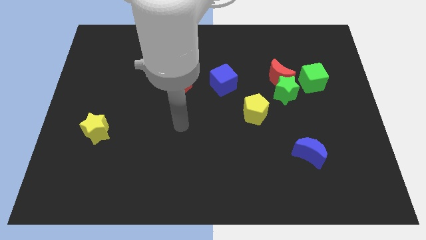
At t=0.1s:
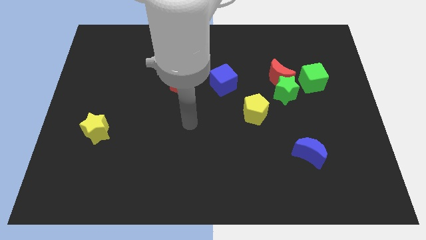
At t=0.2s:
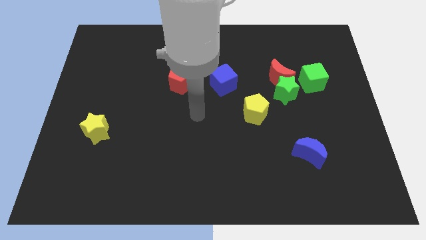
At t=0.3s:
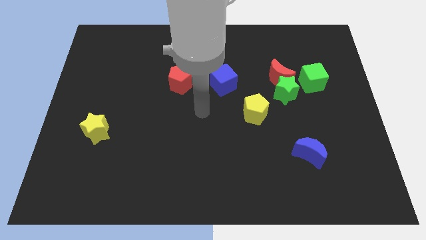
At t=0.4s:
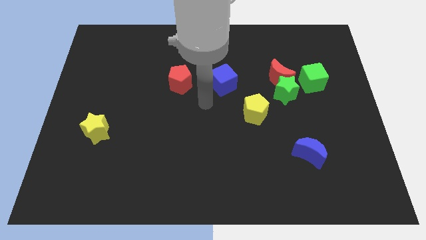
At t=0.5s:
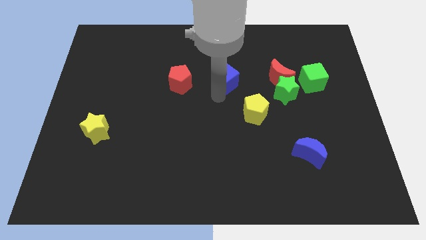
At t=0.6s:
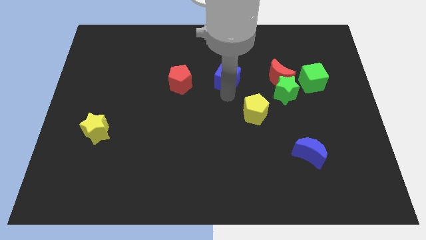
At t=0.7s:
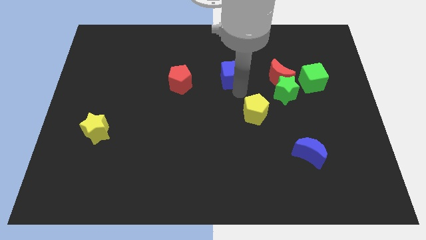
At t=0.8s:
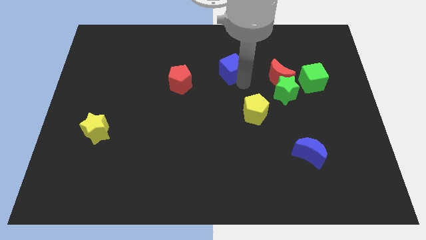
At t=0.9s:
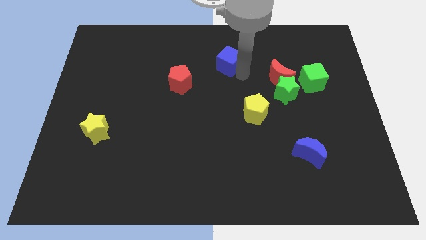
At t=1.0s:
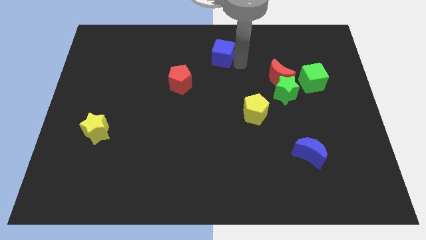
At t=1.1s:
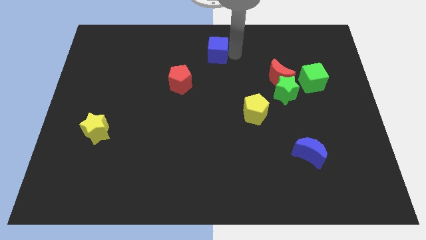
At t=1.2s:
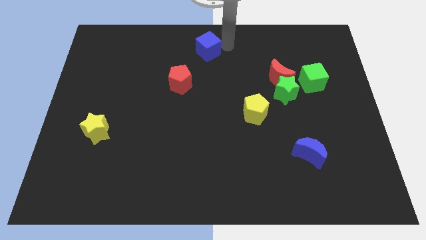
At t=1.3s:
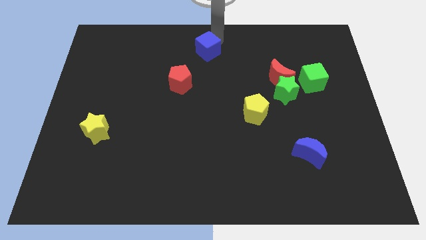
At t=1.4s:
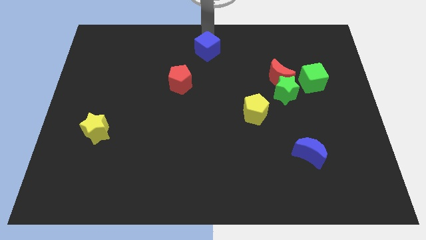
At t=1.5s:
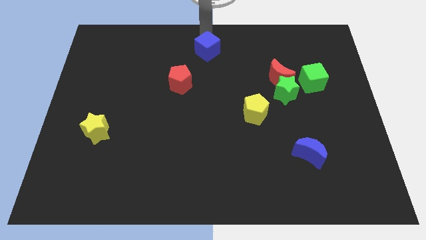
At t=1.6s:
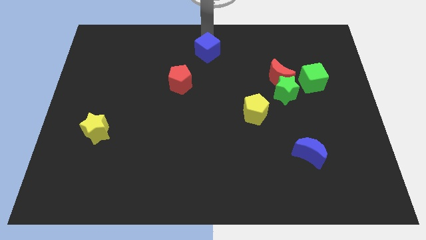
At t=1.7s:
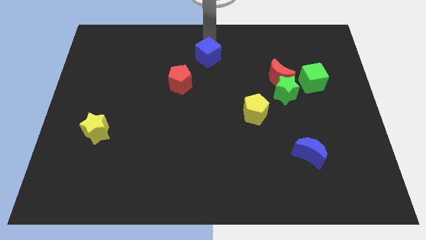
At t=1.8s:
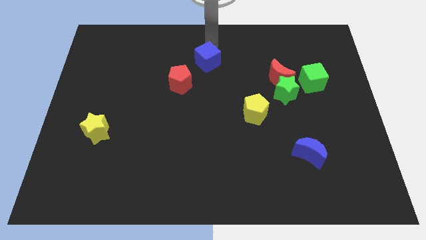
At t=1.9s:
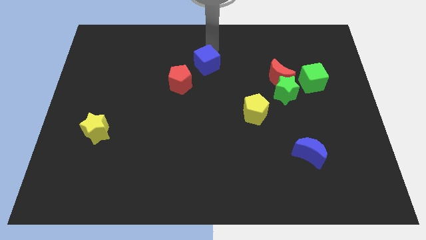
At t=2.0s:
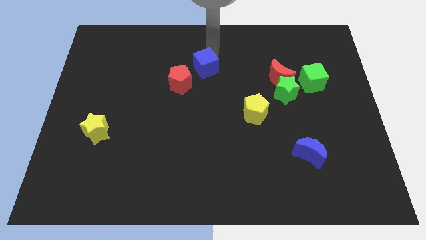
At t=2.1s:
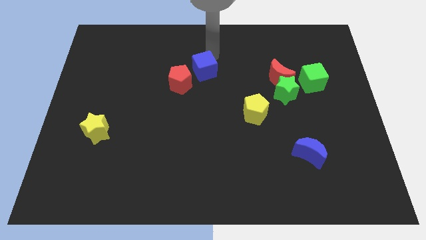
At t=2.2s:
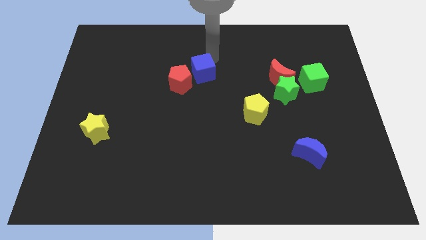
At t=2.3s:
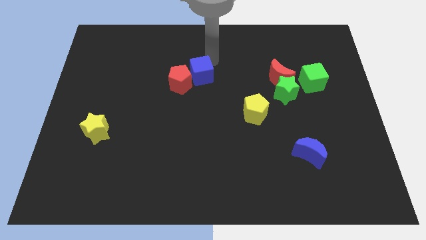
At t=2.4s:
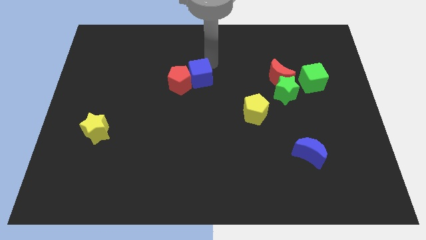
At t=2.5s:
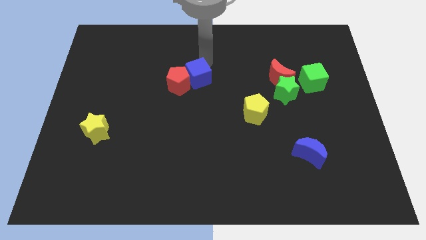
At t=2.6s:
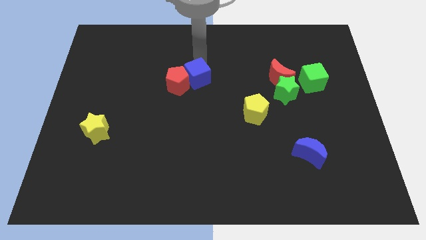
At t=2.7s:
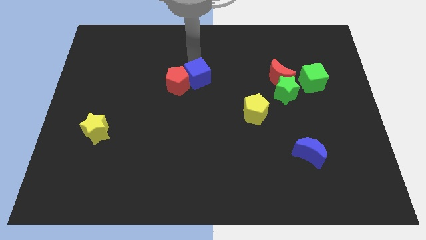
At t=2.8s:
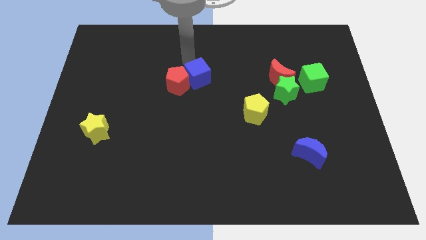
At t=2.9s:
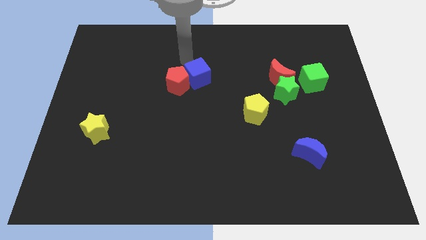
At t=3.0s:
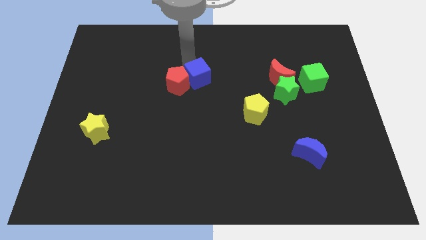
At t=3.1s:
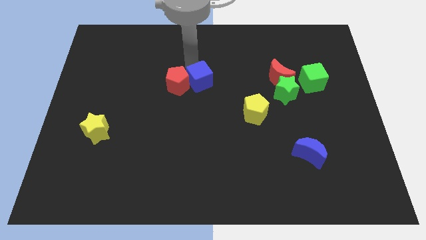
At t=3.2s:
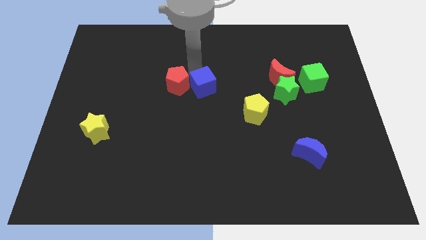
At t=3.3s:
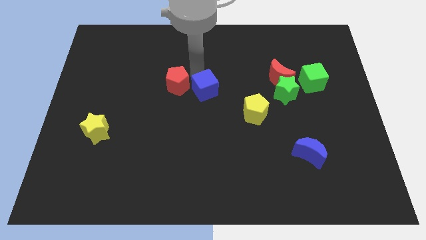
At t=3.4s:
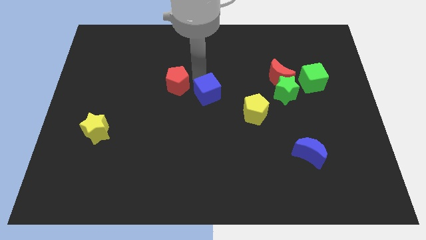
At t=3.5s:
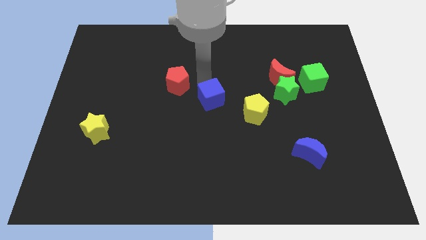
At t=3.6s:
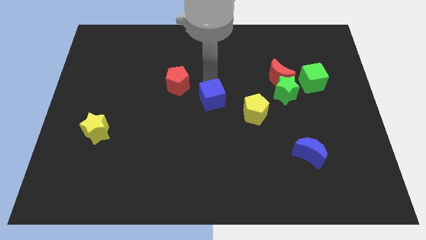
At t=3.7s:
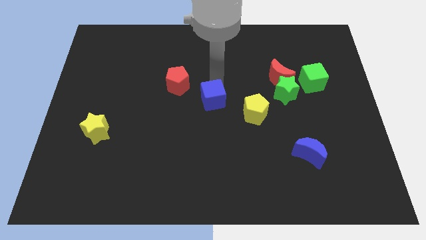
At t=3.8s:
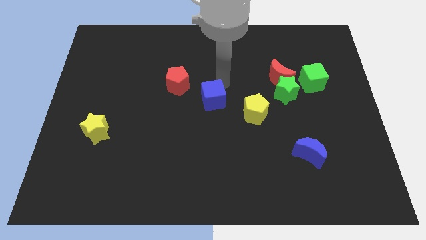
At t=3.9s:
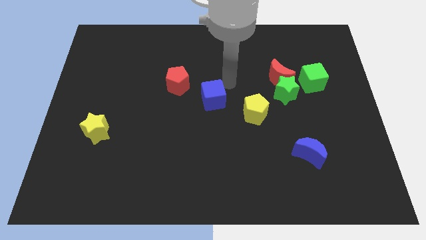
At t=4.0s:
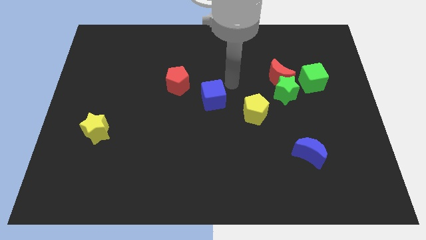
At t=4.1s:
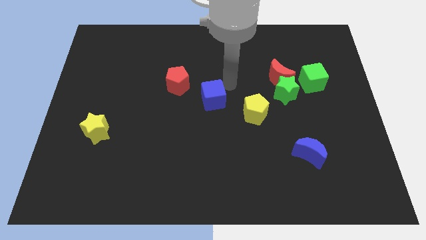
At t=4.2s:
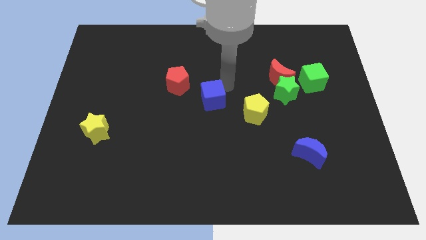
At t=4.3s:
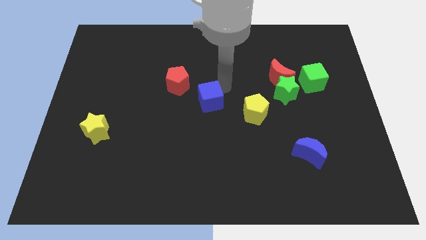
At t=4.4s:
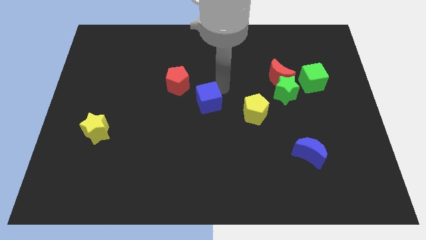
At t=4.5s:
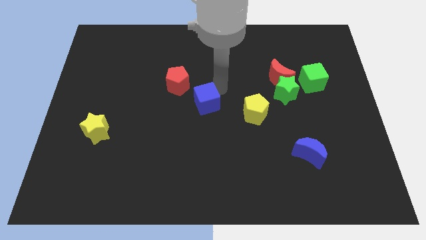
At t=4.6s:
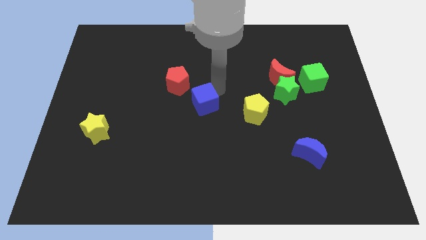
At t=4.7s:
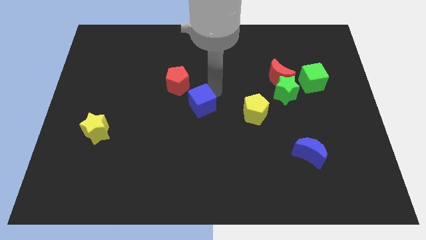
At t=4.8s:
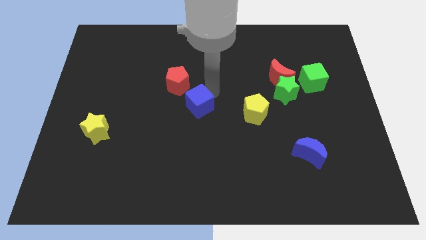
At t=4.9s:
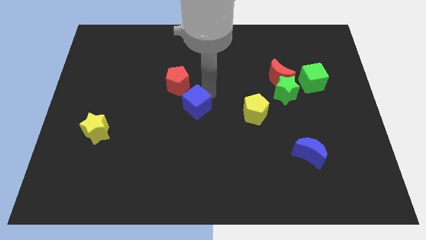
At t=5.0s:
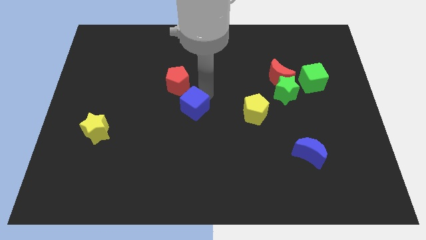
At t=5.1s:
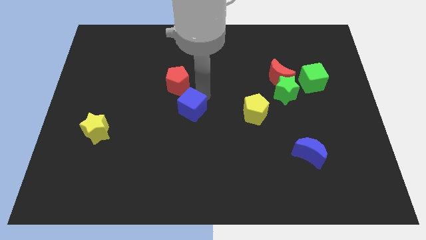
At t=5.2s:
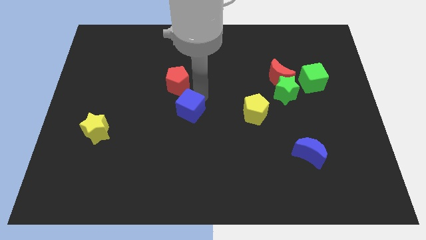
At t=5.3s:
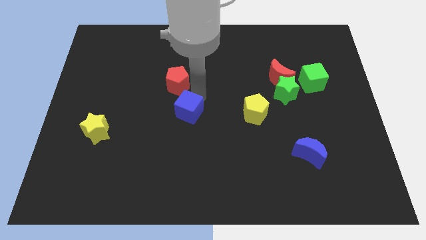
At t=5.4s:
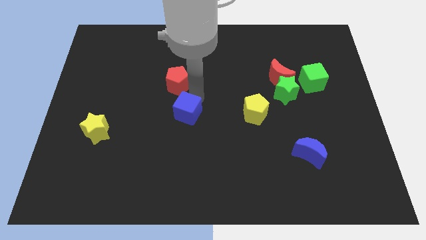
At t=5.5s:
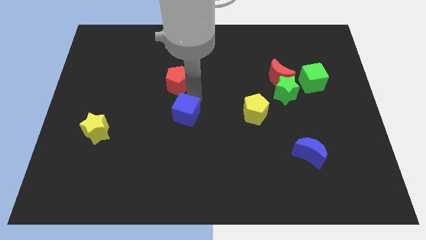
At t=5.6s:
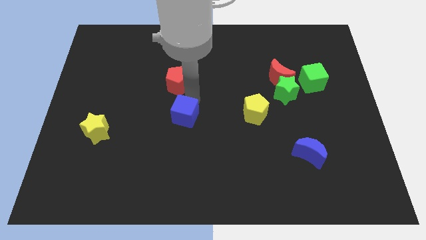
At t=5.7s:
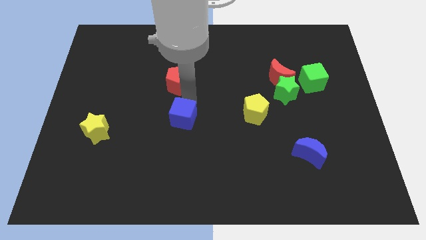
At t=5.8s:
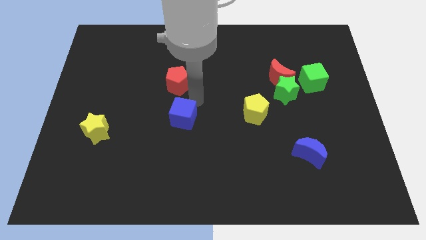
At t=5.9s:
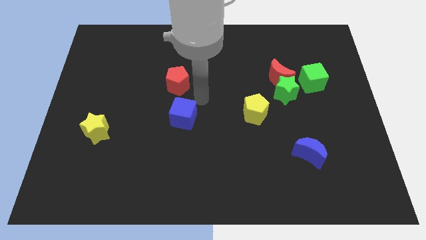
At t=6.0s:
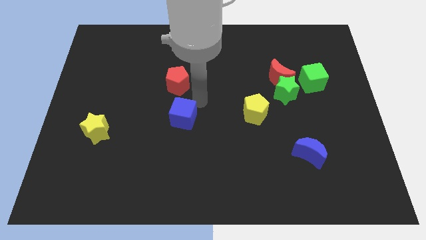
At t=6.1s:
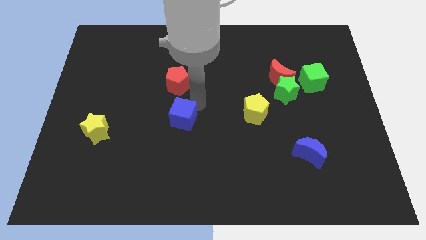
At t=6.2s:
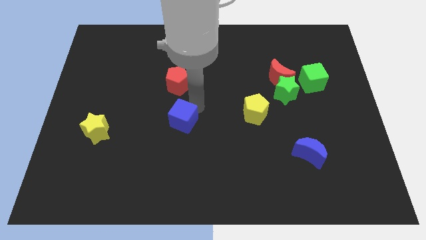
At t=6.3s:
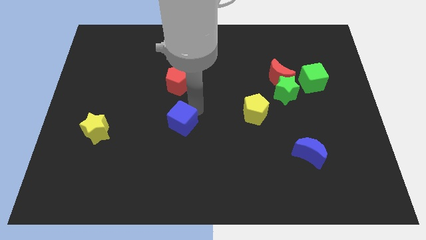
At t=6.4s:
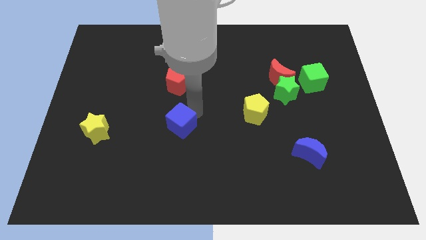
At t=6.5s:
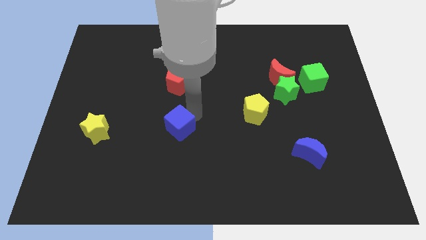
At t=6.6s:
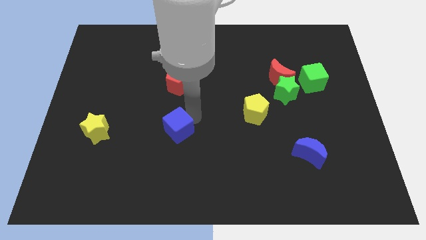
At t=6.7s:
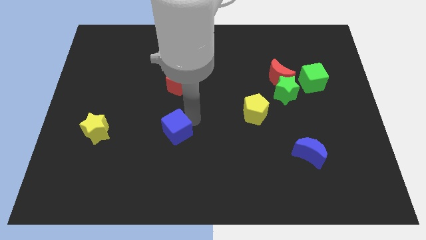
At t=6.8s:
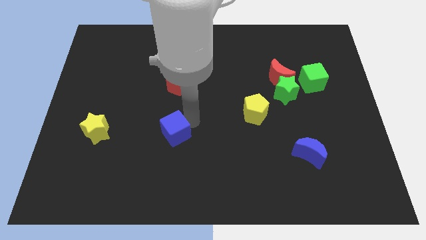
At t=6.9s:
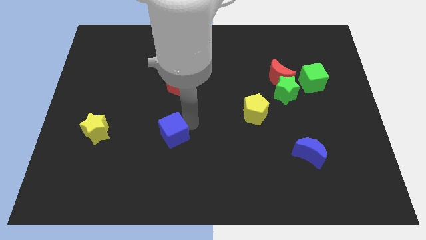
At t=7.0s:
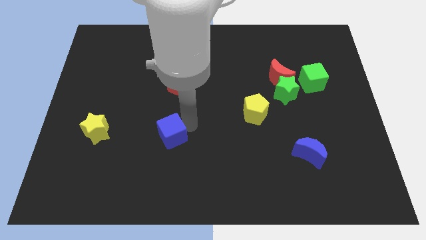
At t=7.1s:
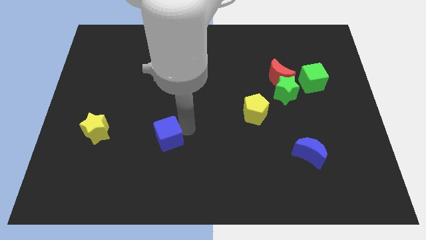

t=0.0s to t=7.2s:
push the blue cube down and to the left diagonally

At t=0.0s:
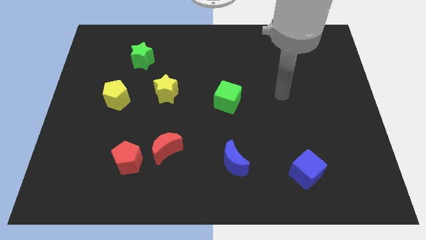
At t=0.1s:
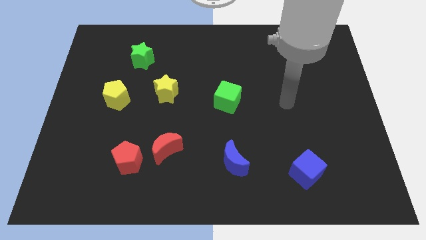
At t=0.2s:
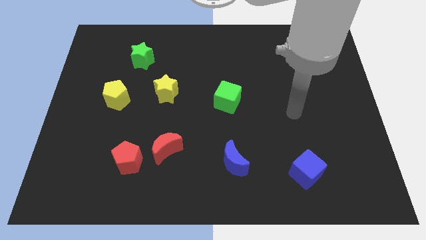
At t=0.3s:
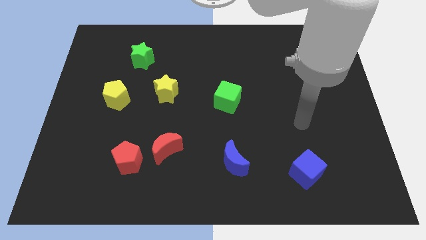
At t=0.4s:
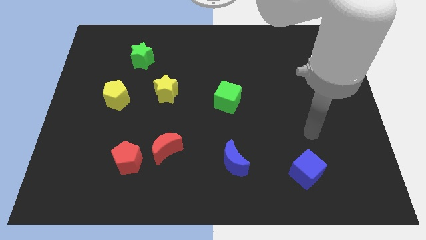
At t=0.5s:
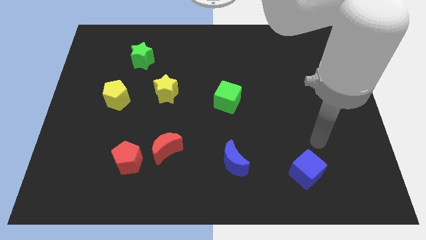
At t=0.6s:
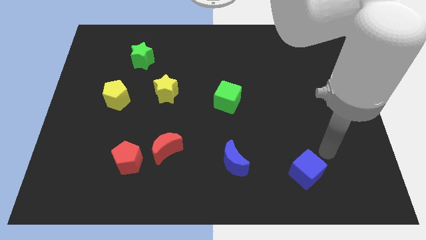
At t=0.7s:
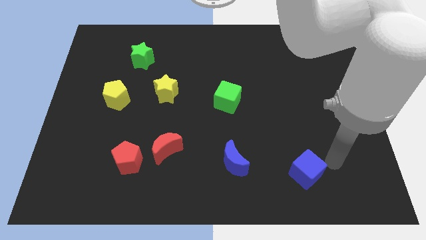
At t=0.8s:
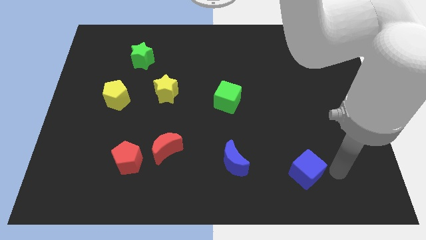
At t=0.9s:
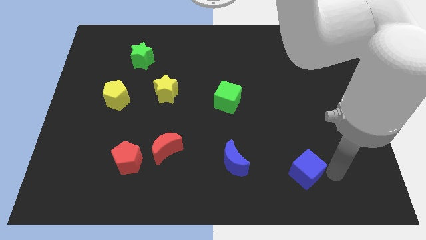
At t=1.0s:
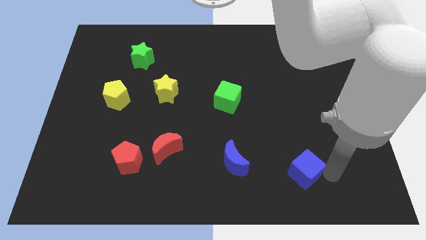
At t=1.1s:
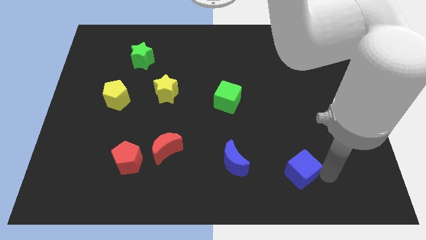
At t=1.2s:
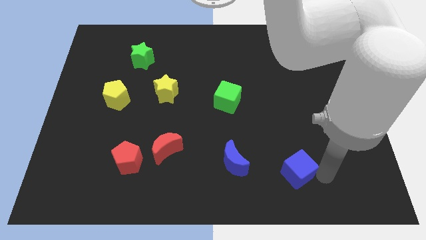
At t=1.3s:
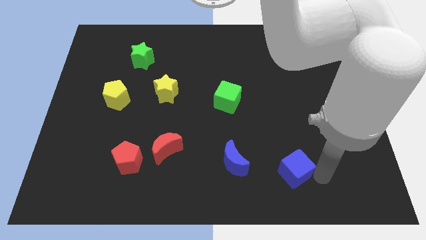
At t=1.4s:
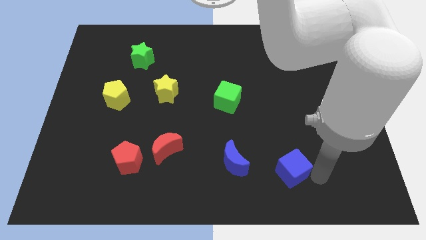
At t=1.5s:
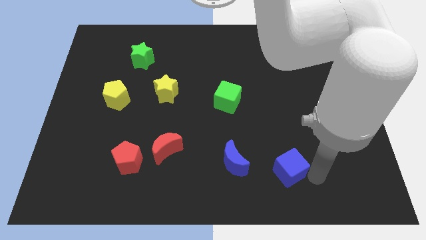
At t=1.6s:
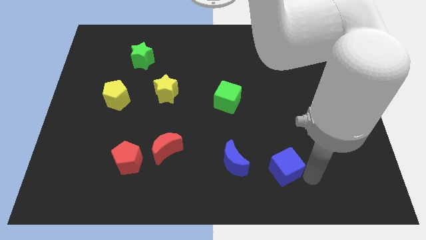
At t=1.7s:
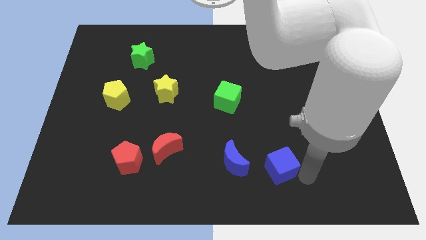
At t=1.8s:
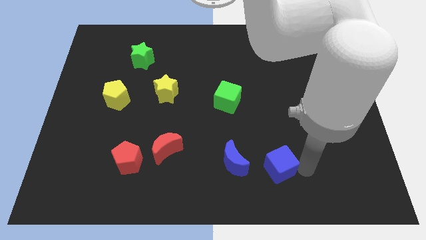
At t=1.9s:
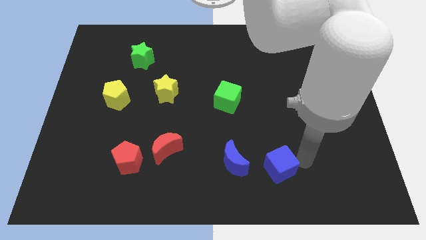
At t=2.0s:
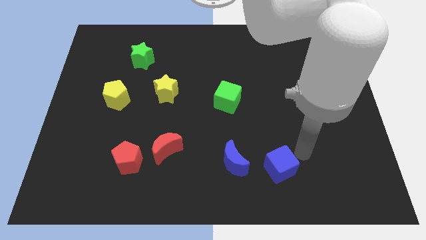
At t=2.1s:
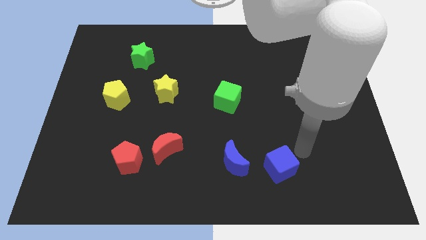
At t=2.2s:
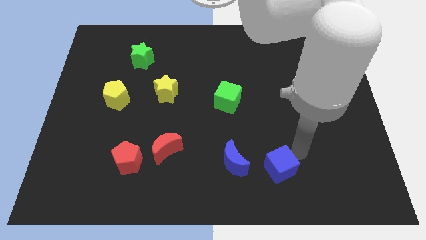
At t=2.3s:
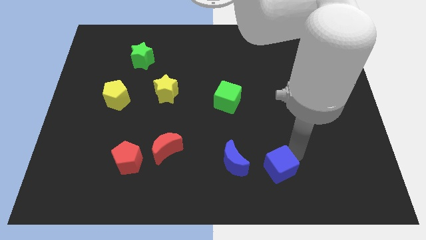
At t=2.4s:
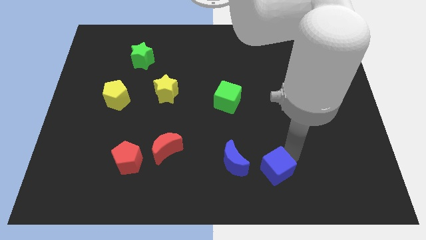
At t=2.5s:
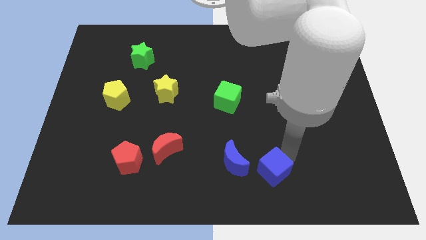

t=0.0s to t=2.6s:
slightly slide the blue cube to the left
